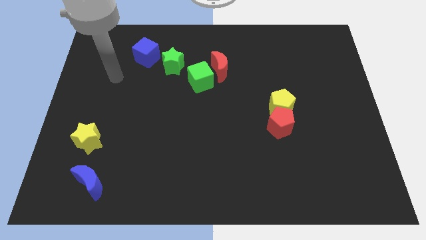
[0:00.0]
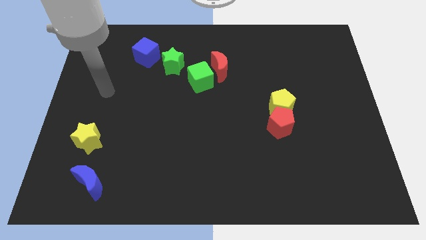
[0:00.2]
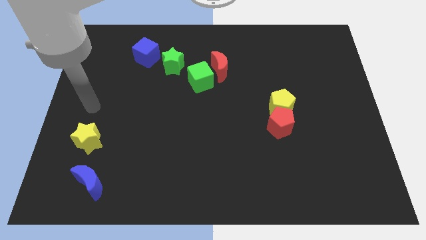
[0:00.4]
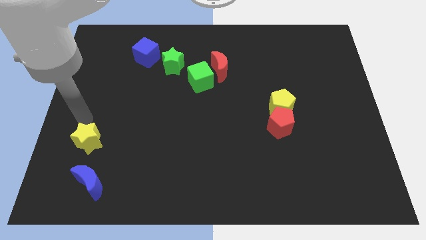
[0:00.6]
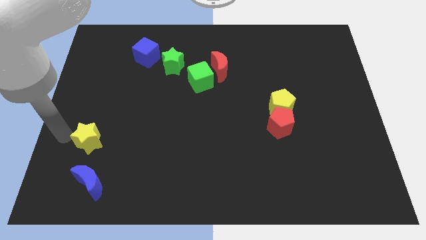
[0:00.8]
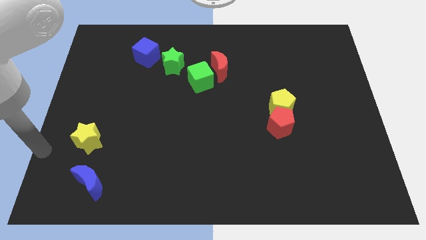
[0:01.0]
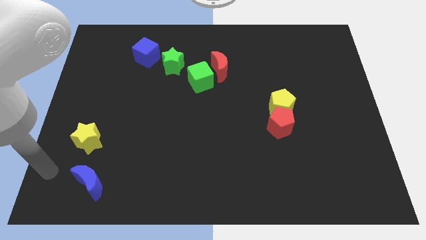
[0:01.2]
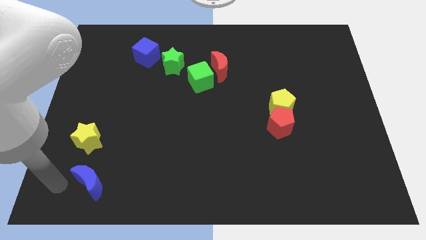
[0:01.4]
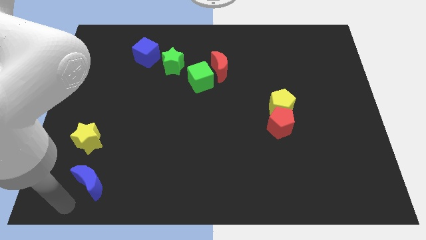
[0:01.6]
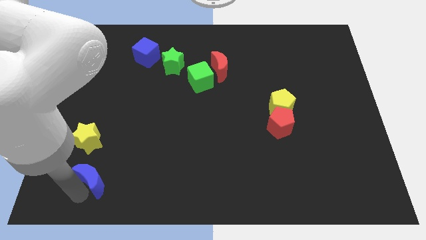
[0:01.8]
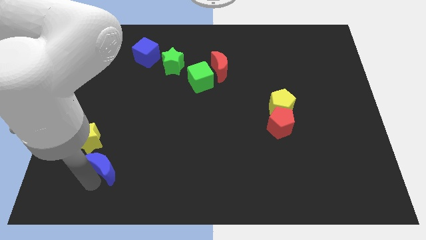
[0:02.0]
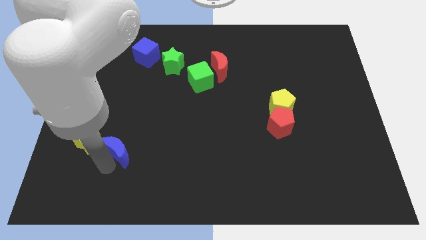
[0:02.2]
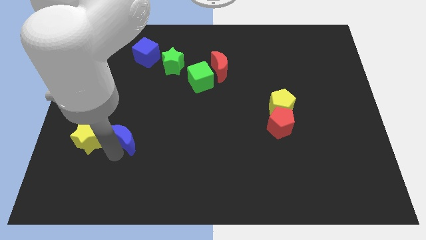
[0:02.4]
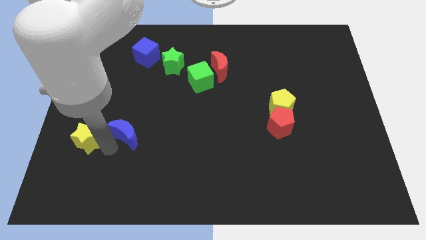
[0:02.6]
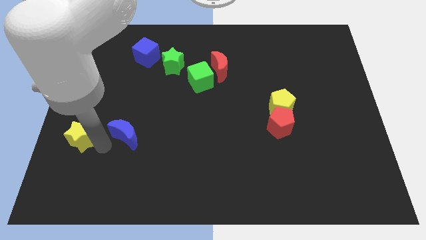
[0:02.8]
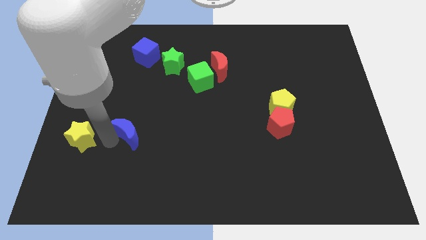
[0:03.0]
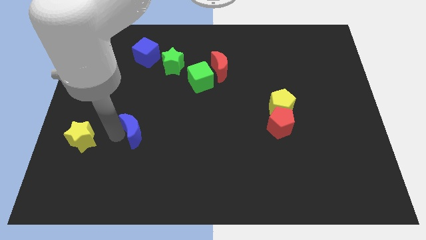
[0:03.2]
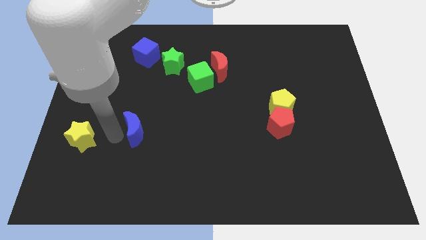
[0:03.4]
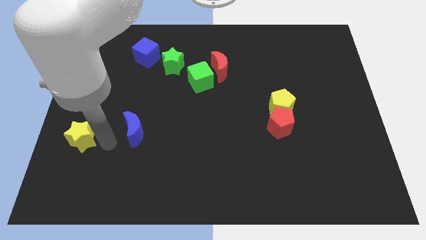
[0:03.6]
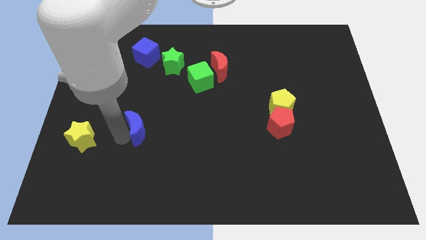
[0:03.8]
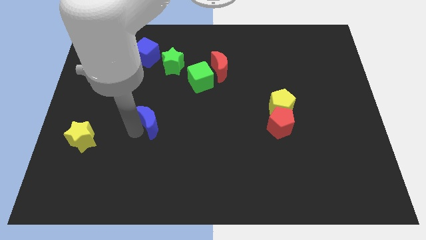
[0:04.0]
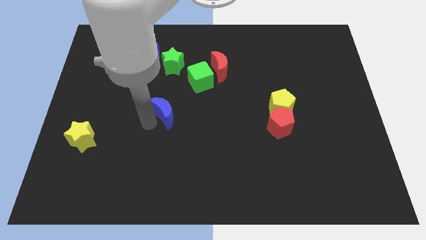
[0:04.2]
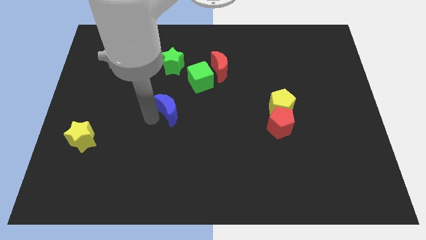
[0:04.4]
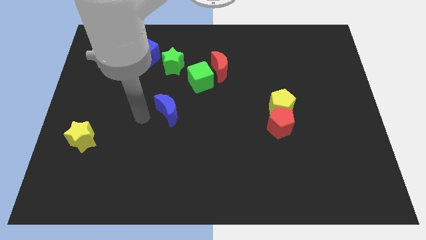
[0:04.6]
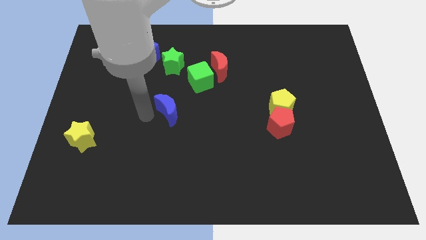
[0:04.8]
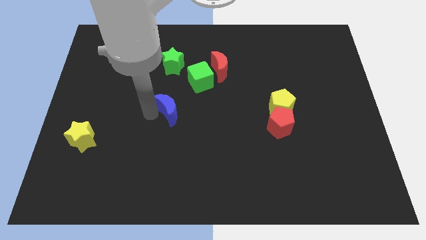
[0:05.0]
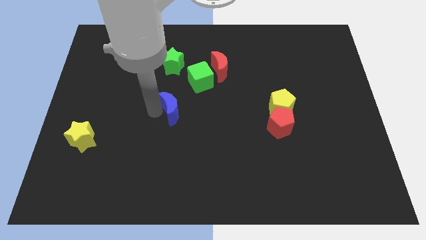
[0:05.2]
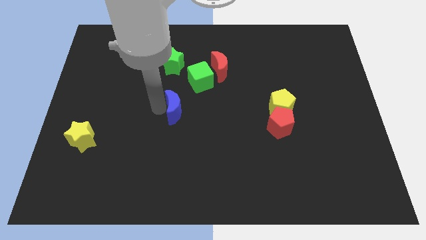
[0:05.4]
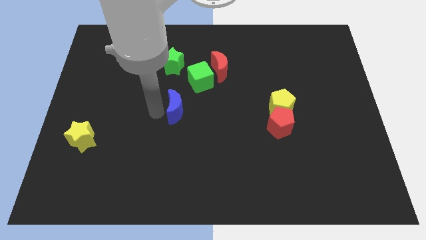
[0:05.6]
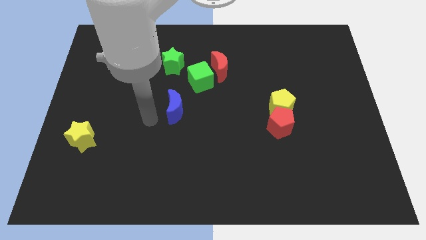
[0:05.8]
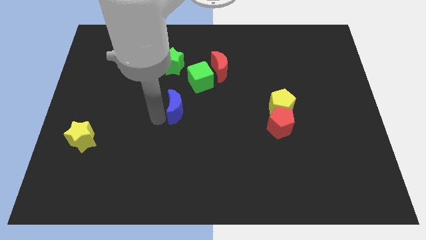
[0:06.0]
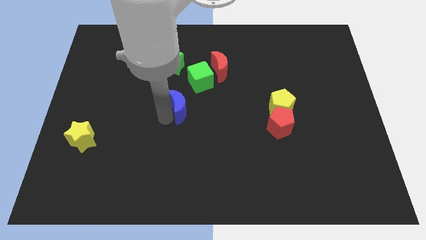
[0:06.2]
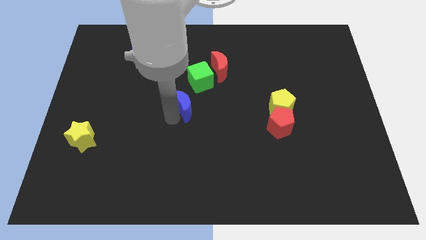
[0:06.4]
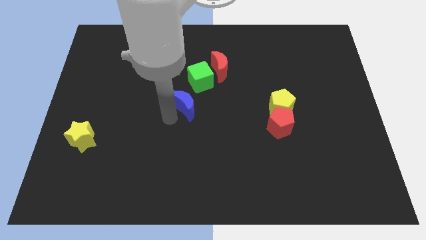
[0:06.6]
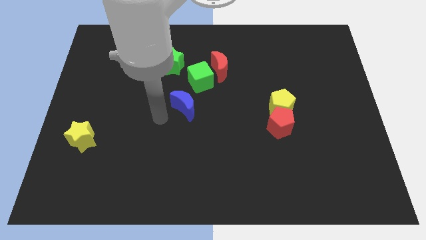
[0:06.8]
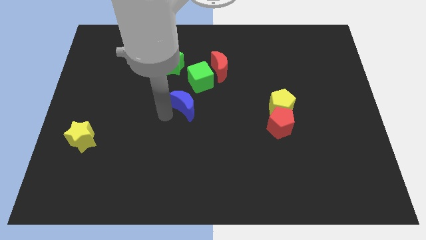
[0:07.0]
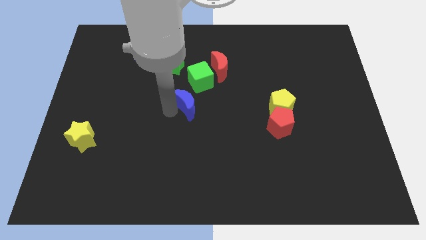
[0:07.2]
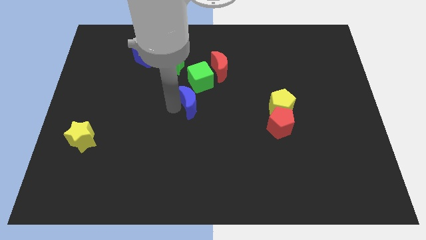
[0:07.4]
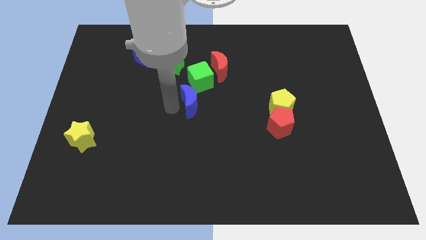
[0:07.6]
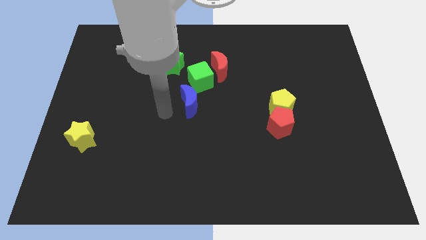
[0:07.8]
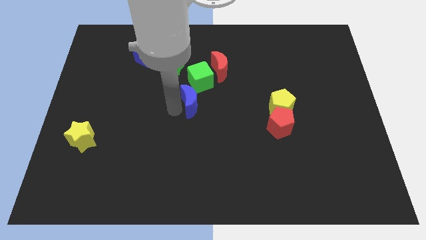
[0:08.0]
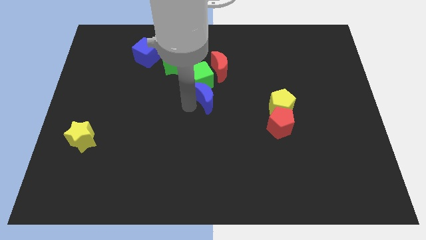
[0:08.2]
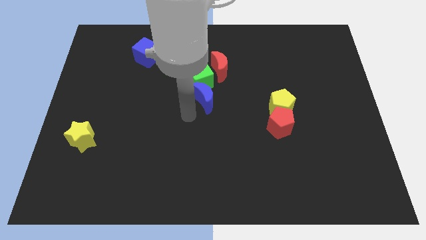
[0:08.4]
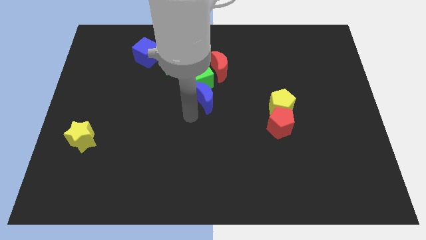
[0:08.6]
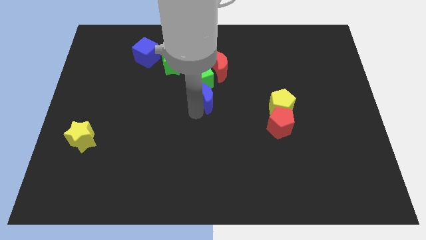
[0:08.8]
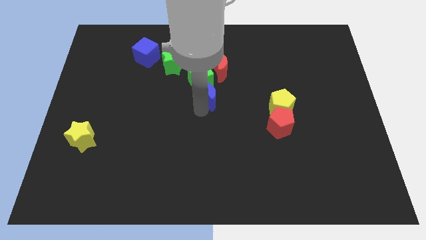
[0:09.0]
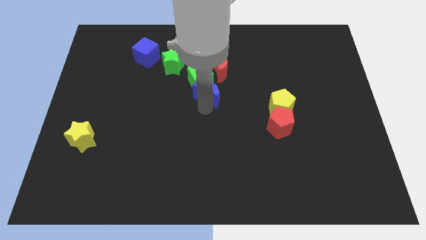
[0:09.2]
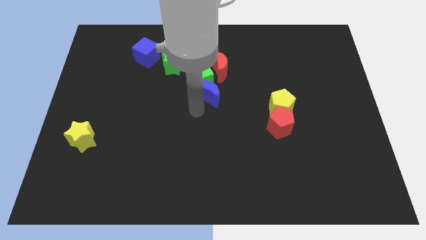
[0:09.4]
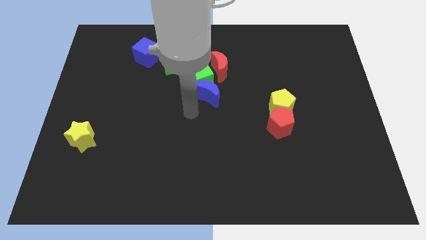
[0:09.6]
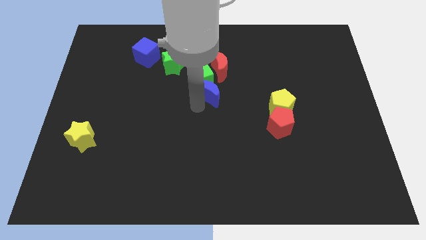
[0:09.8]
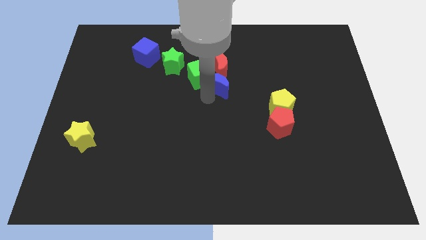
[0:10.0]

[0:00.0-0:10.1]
put the blue moon next to the red moon
